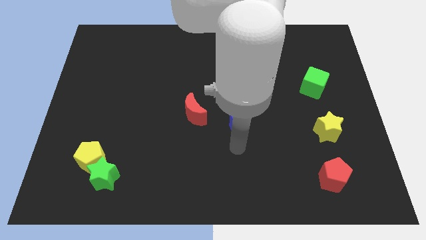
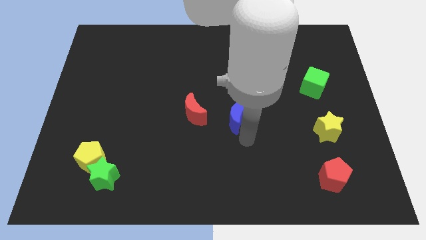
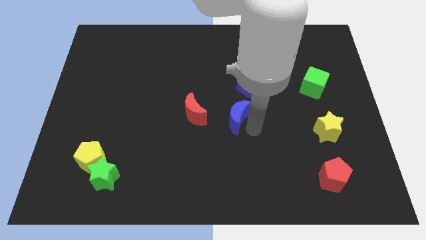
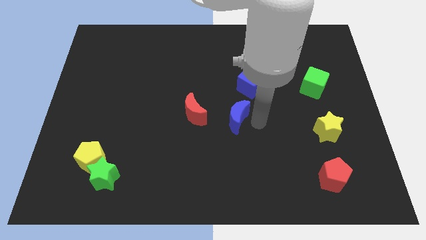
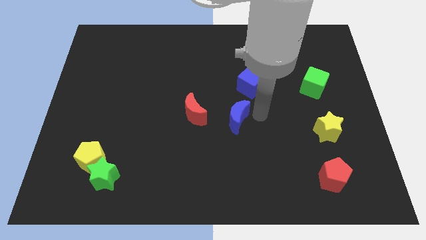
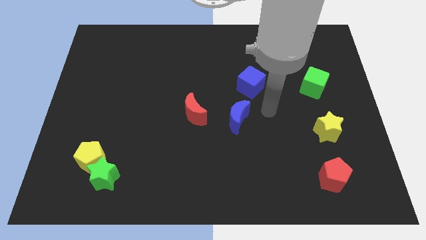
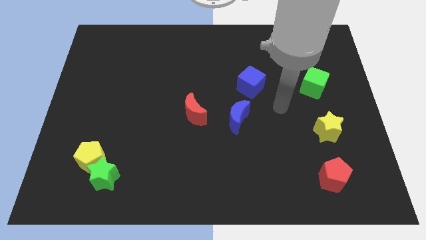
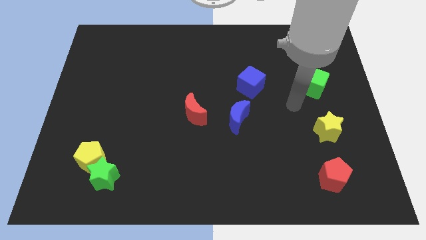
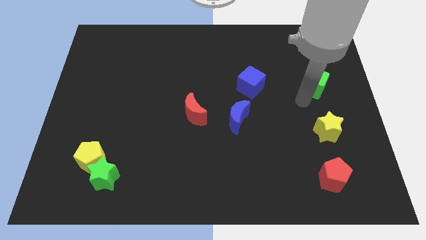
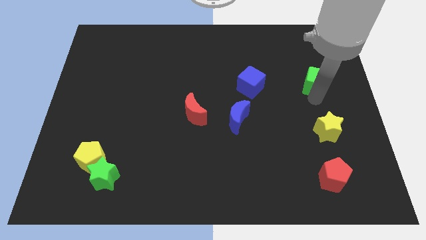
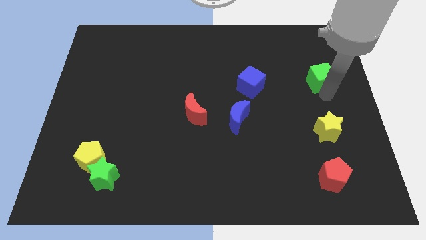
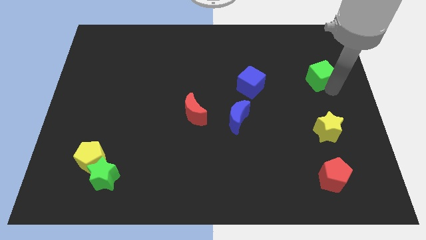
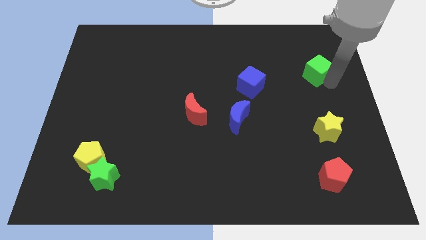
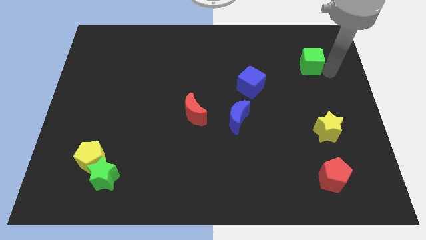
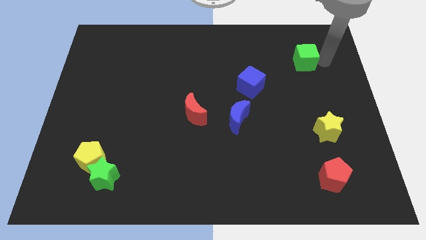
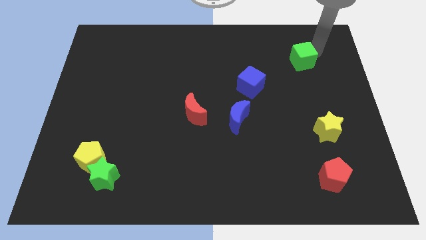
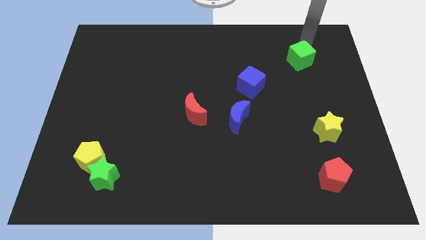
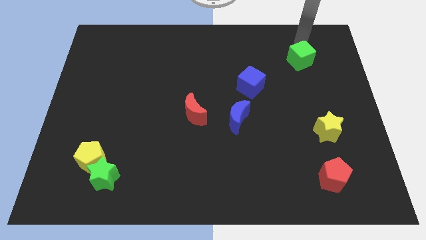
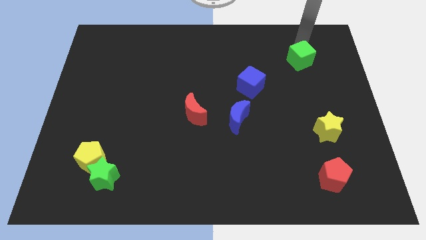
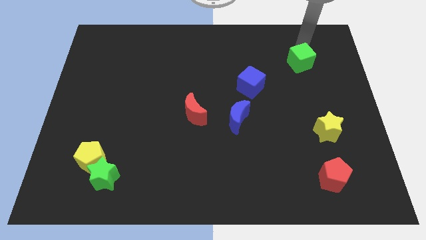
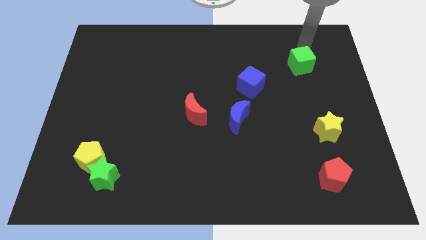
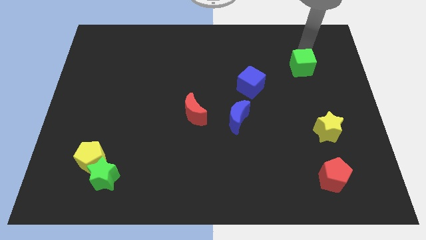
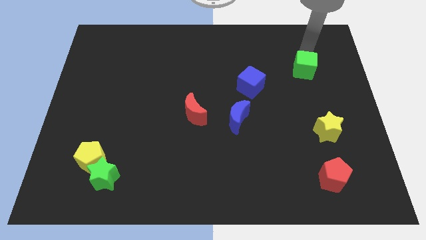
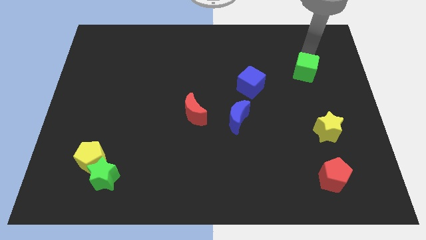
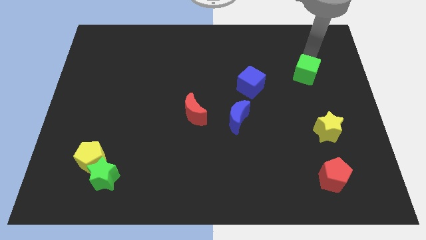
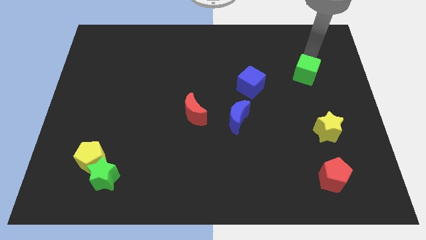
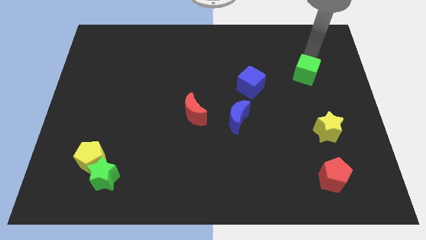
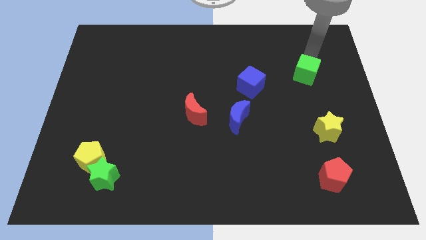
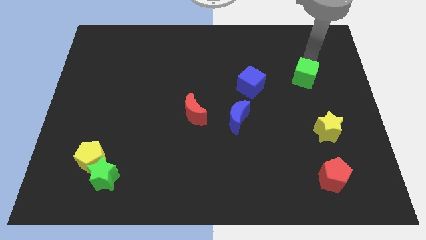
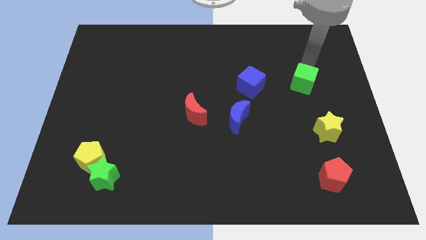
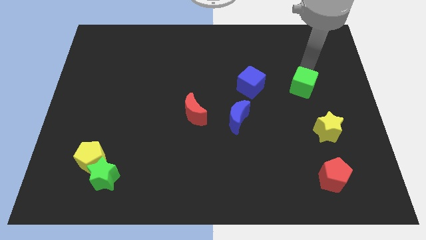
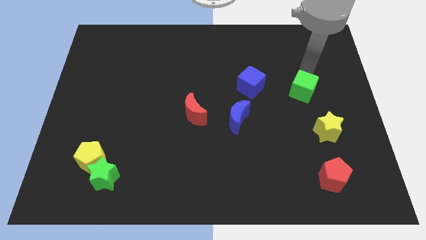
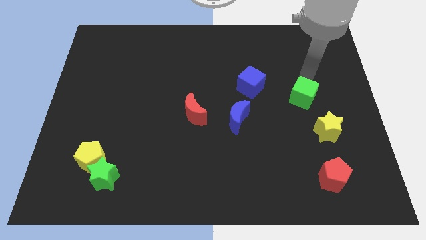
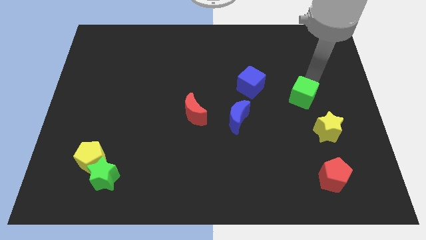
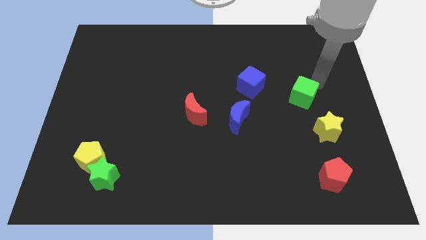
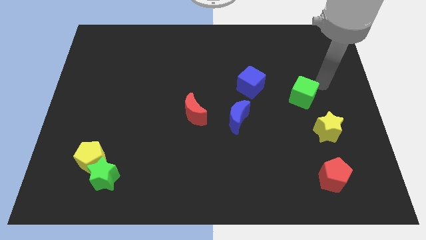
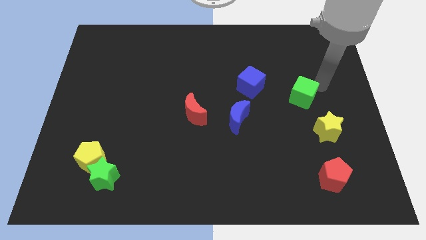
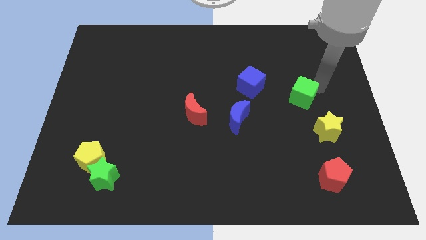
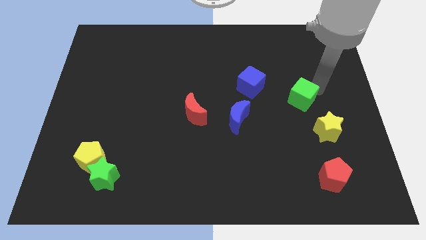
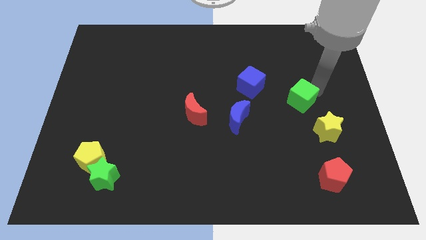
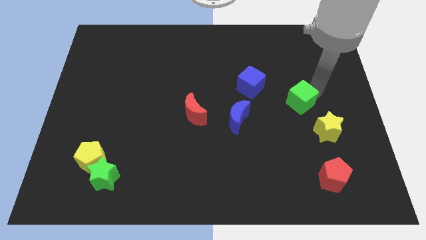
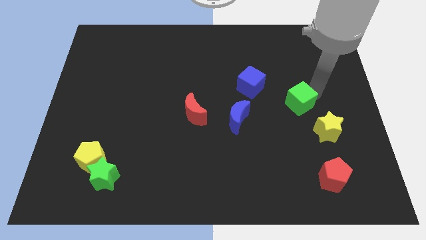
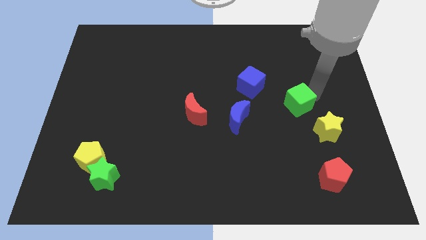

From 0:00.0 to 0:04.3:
move the green cube downwards and to the left a little bit

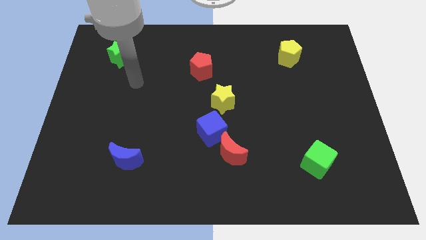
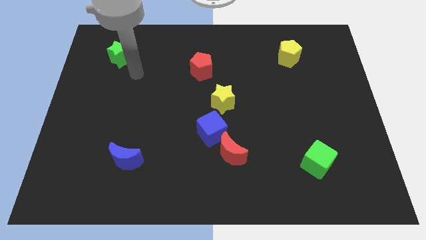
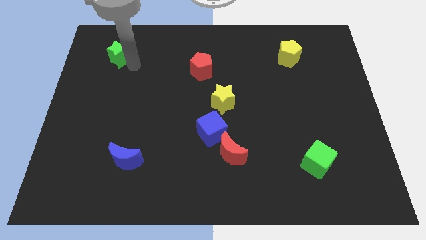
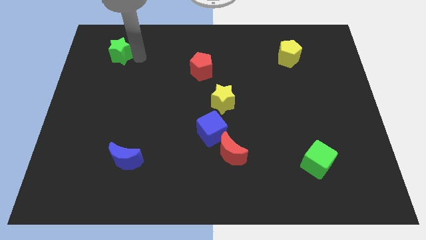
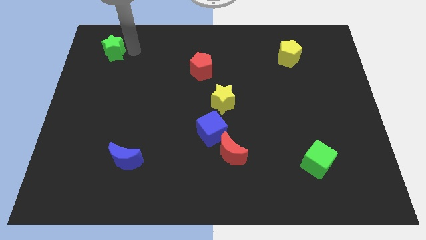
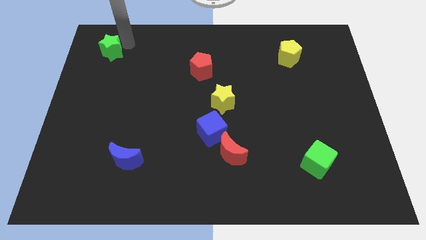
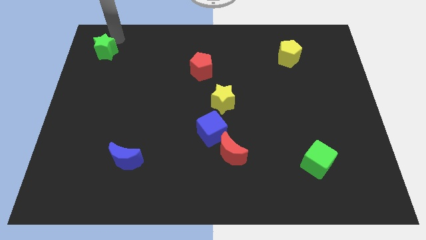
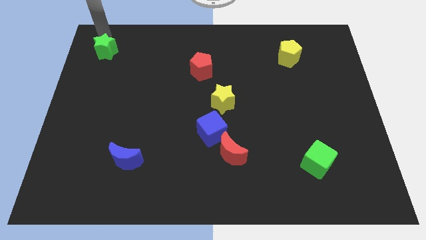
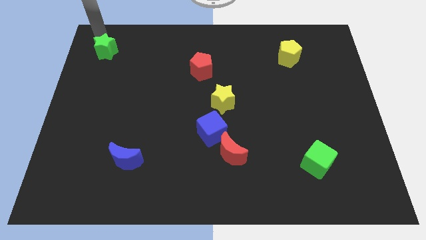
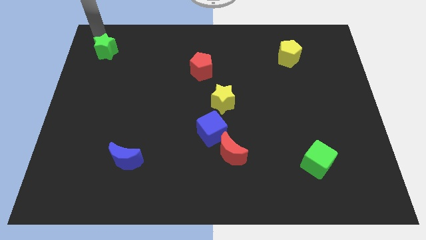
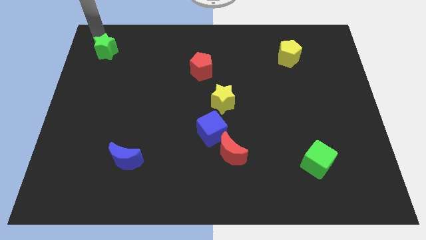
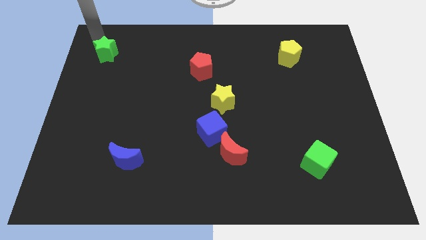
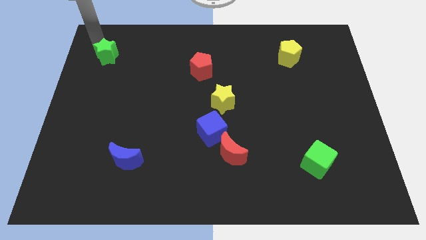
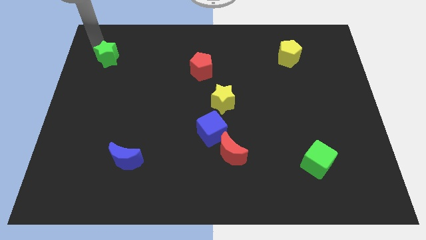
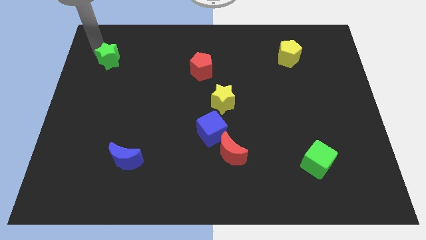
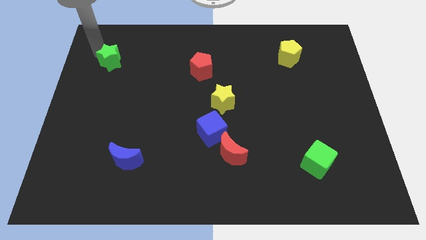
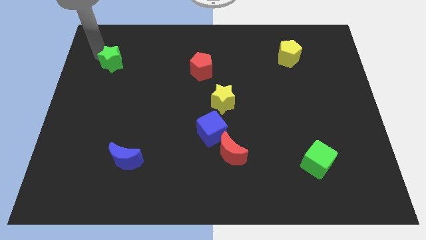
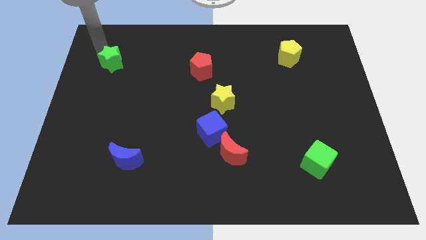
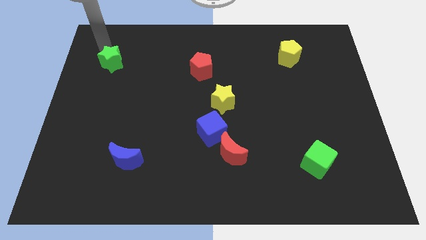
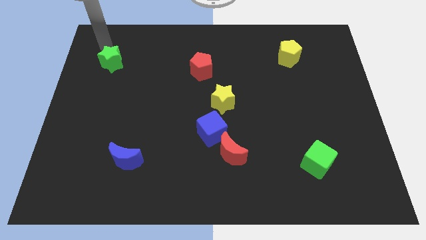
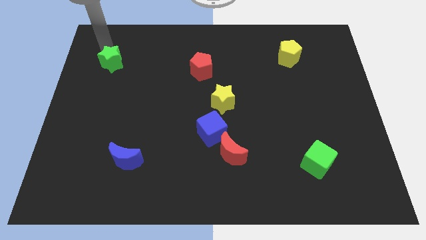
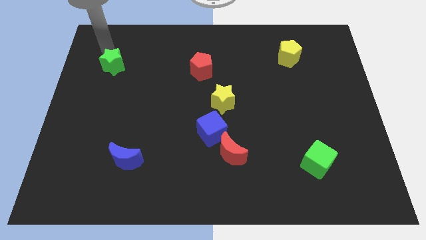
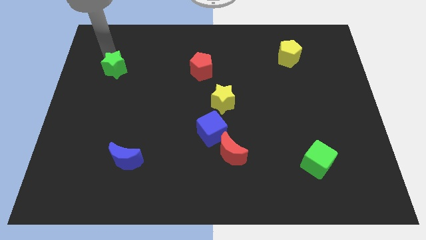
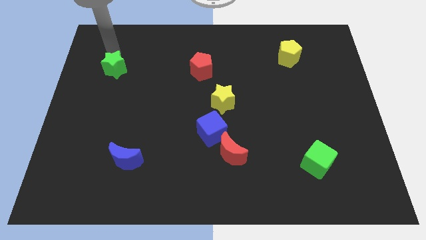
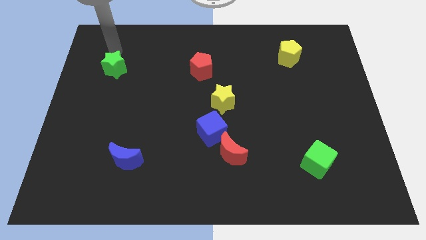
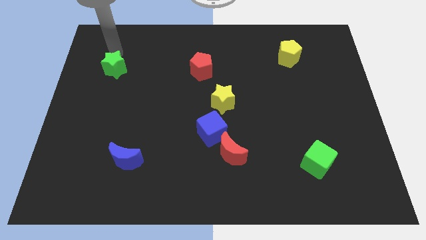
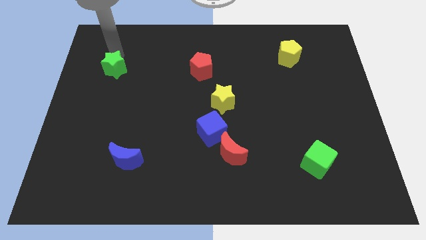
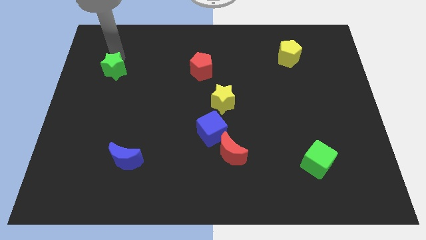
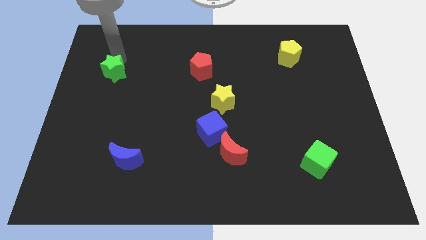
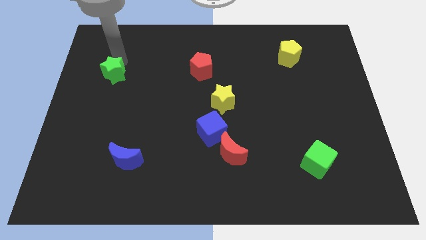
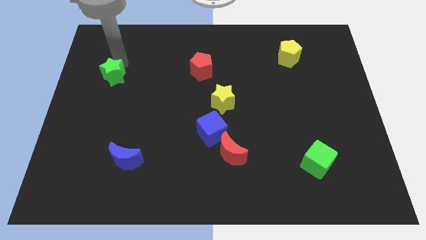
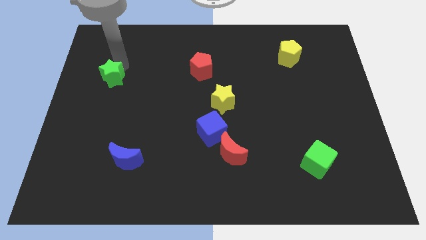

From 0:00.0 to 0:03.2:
slightly push the green star down

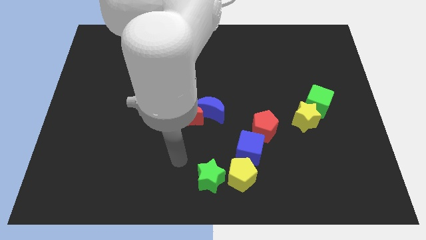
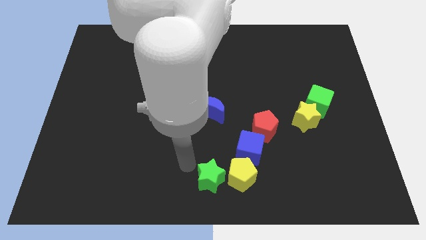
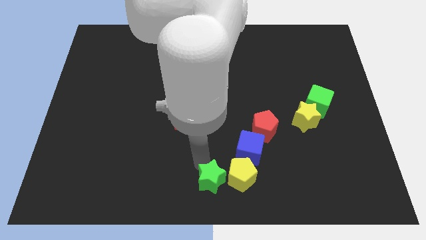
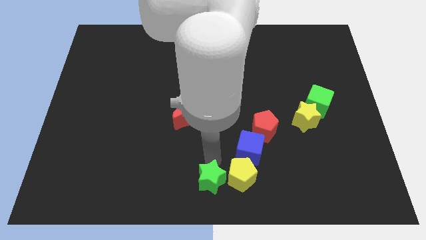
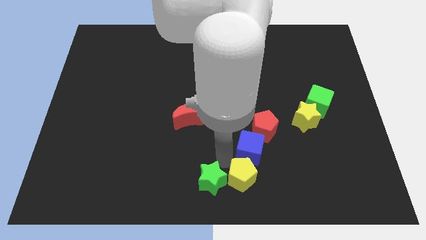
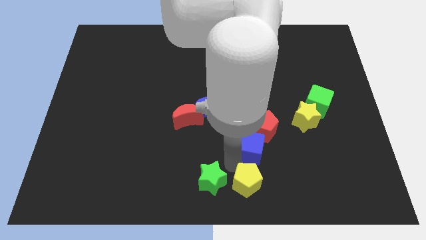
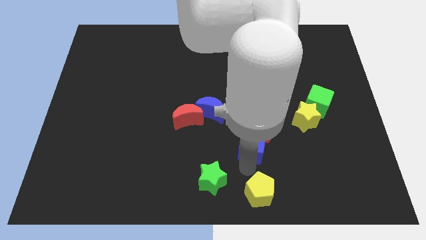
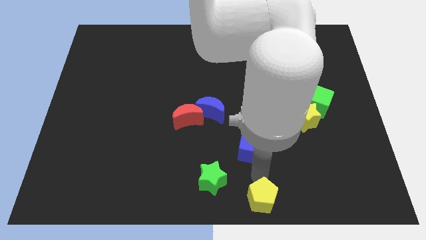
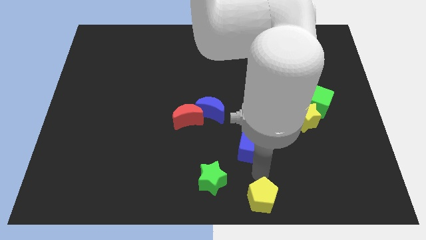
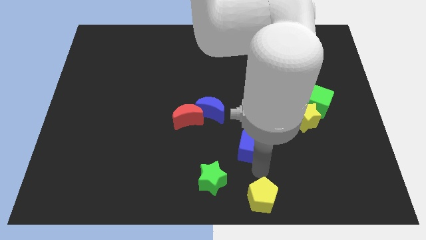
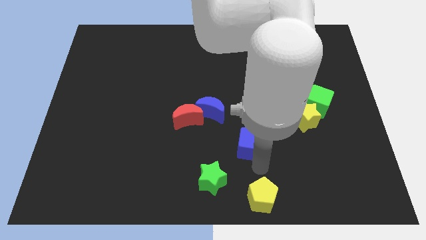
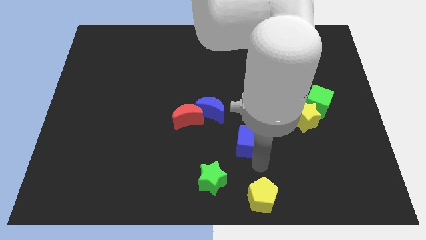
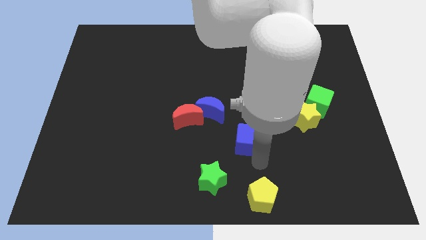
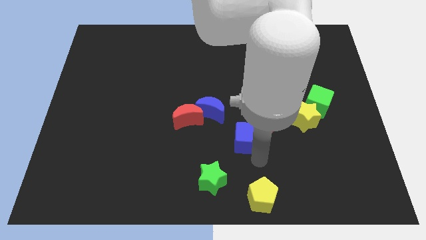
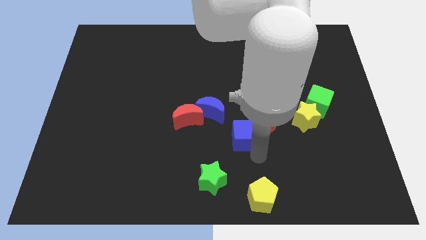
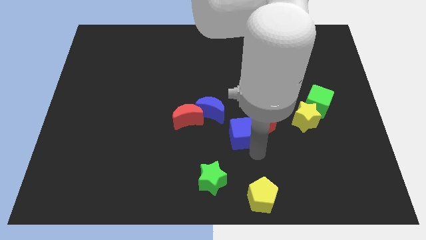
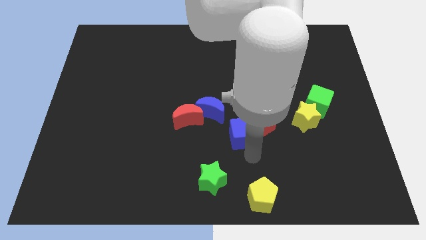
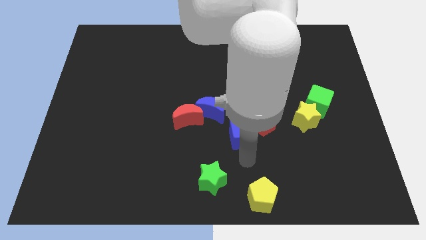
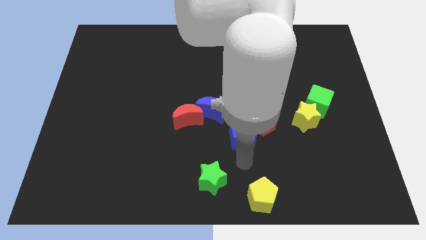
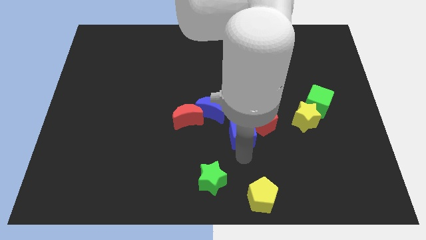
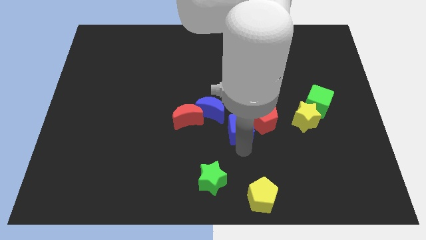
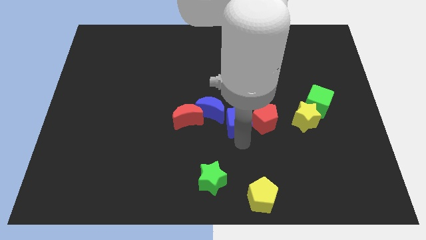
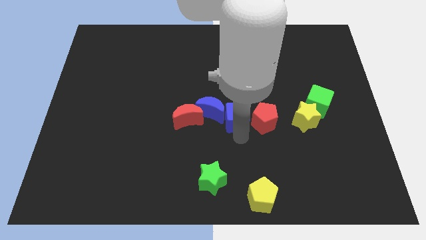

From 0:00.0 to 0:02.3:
push the blue cube a bit up and then left
